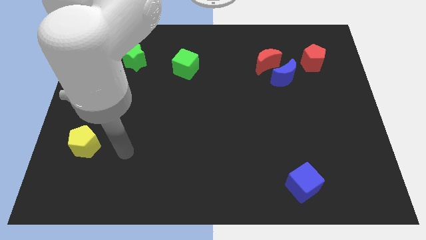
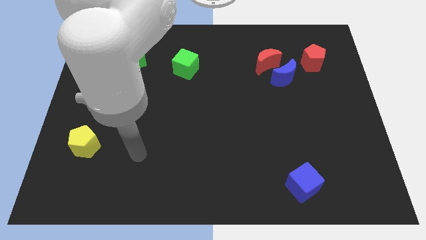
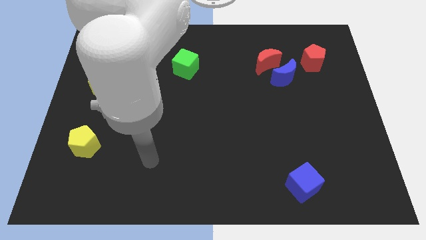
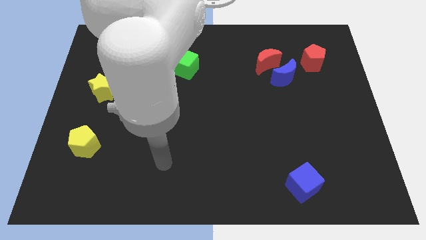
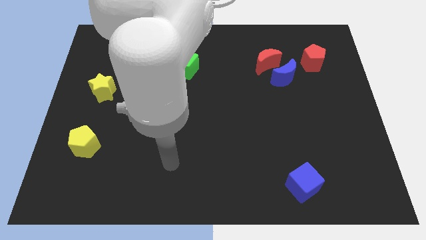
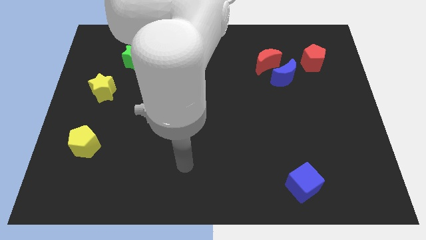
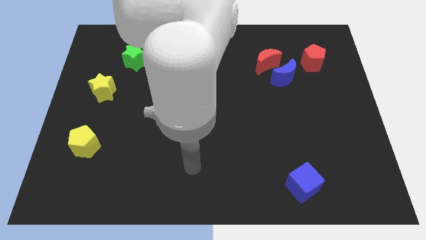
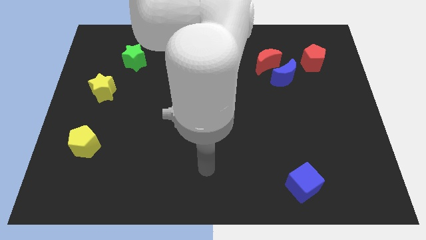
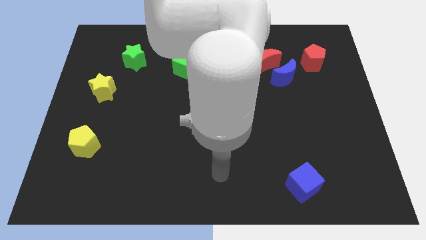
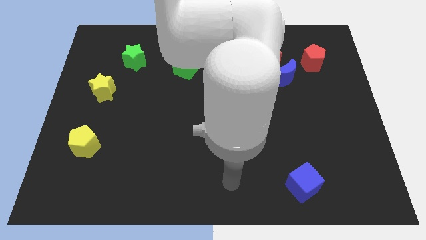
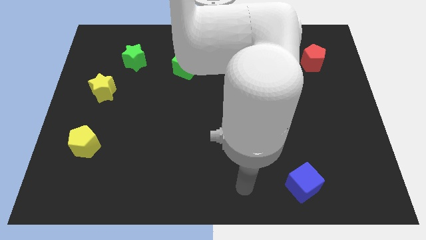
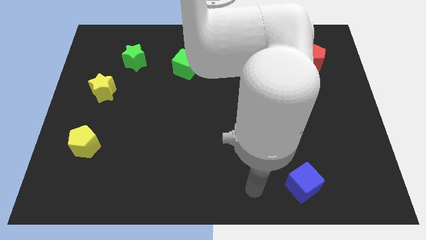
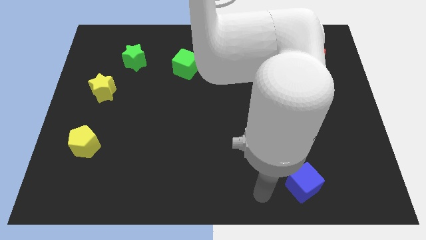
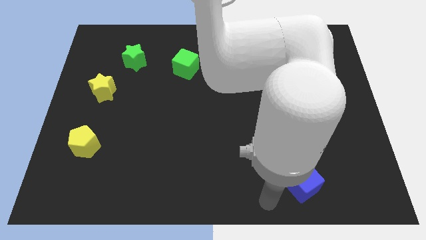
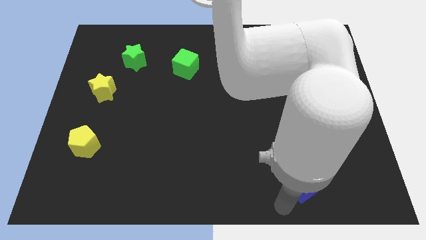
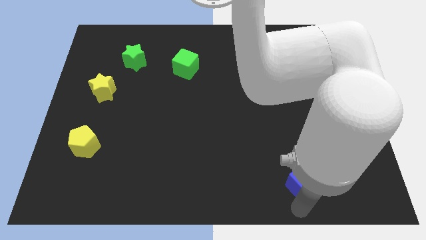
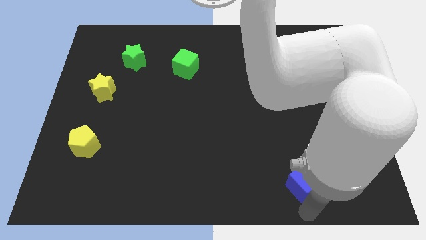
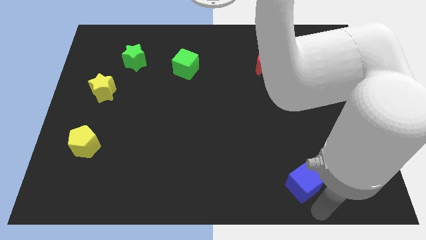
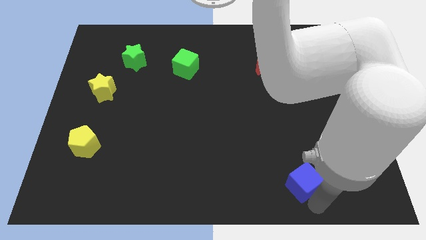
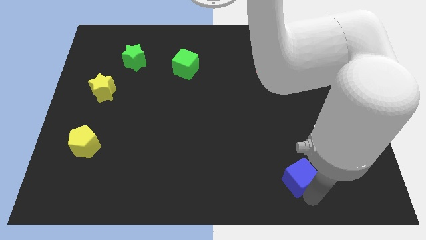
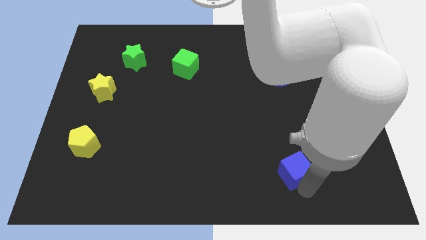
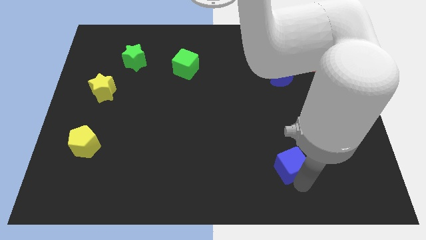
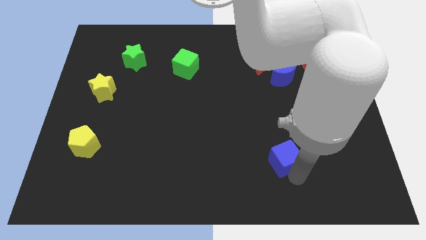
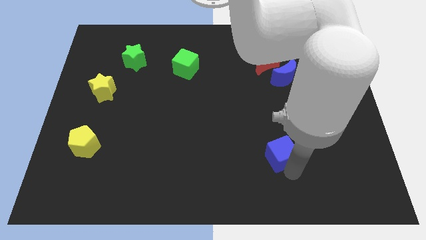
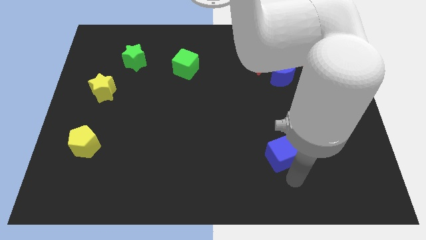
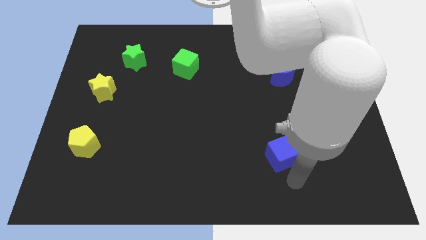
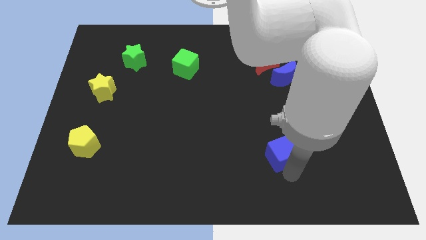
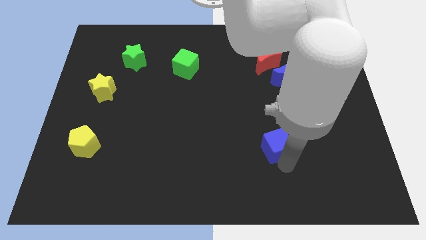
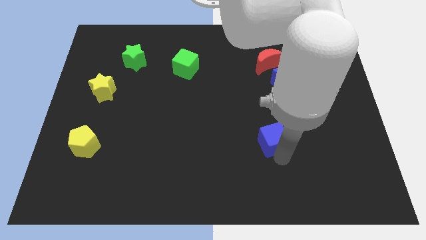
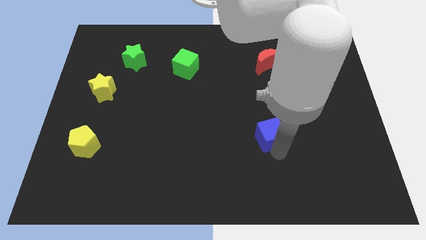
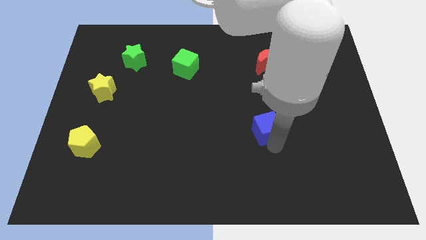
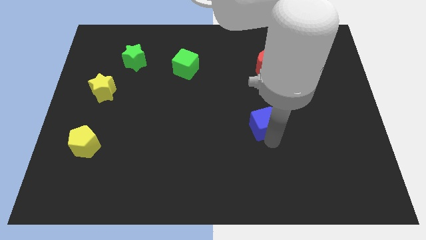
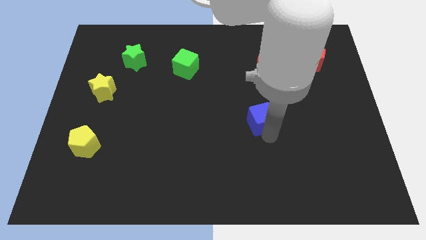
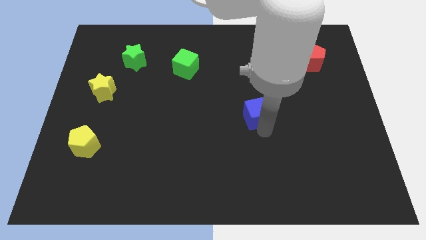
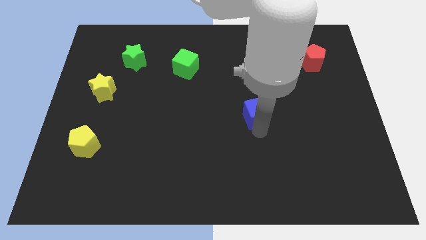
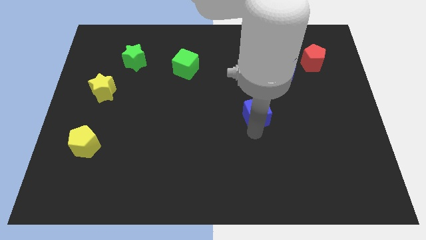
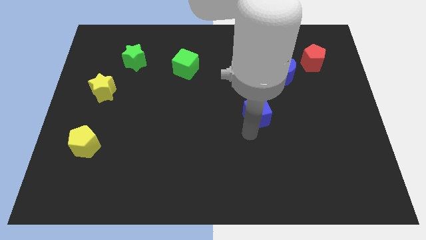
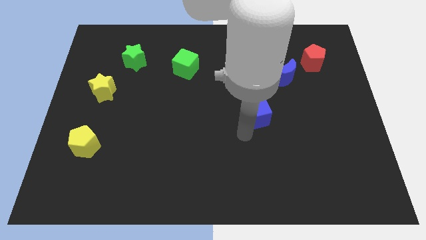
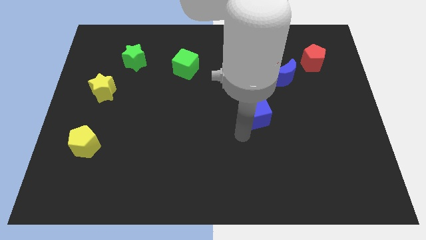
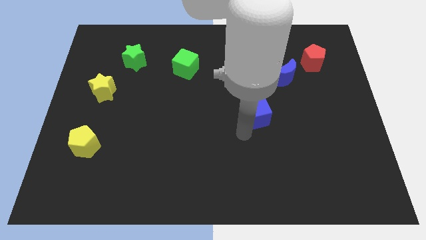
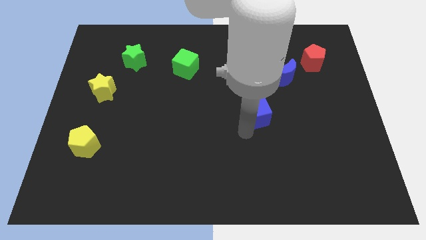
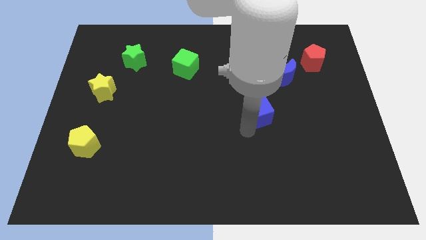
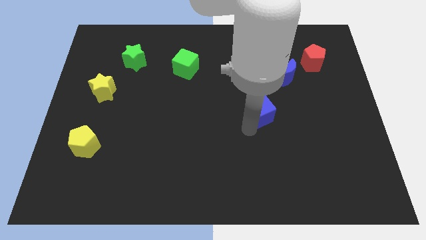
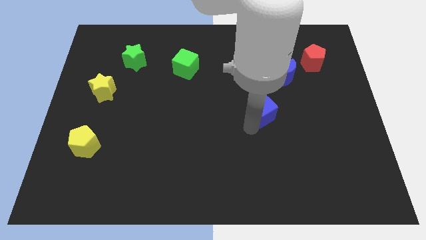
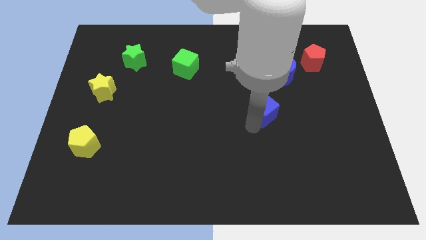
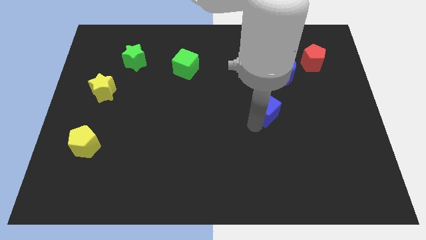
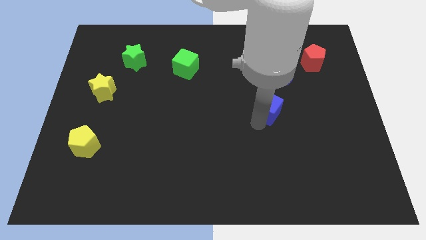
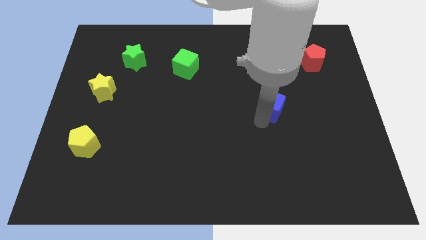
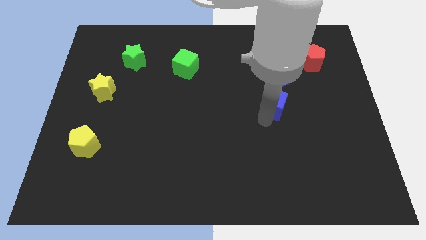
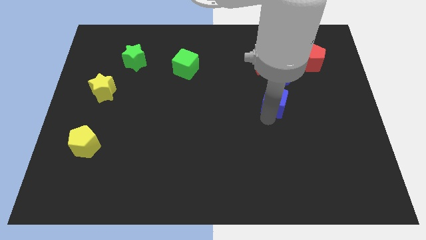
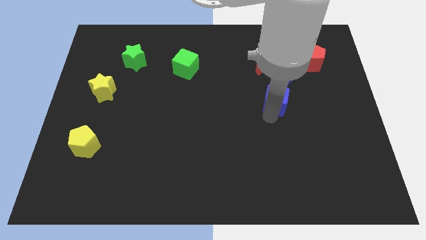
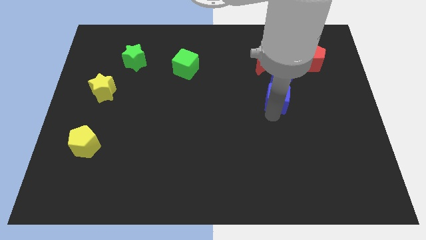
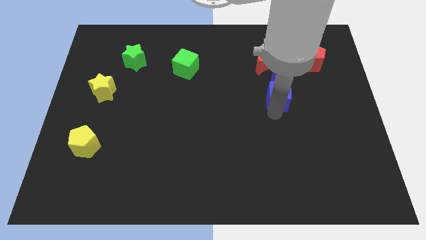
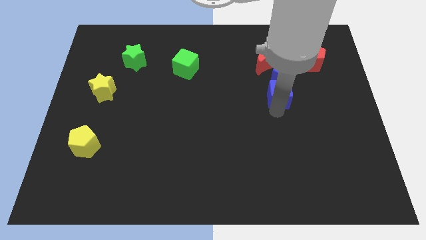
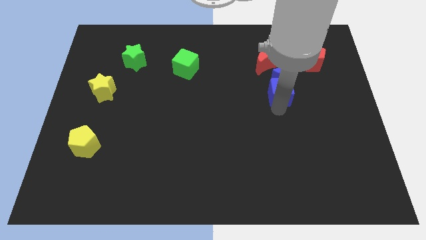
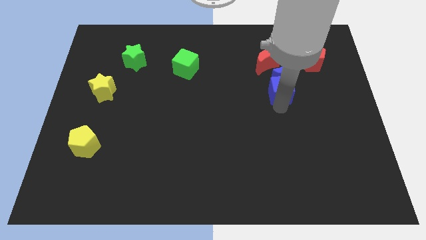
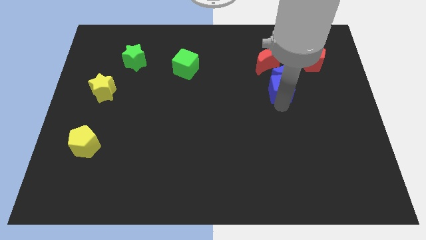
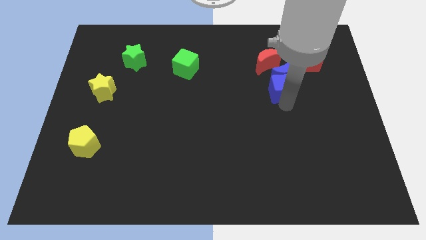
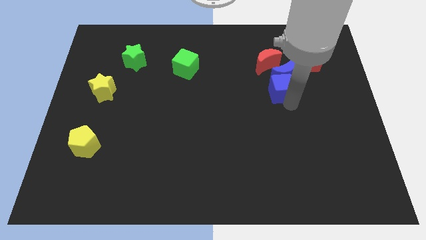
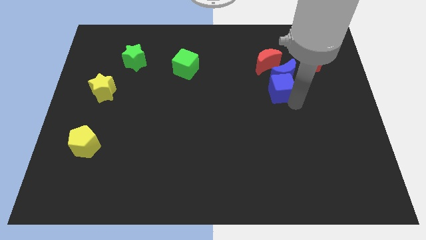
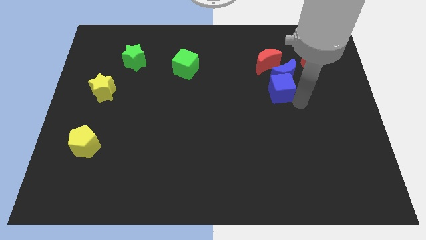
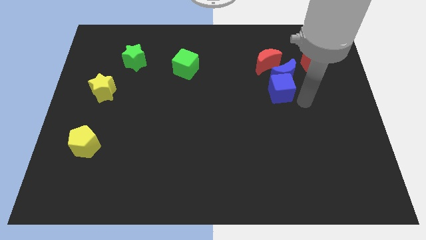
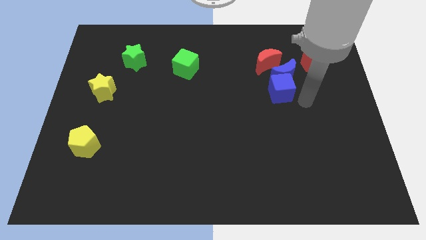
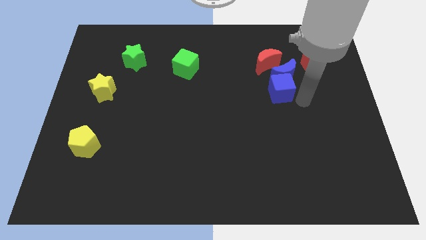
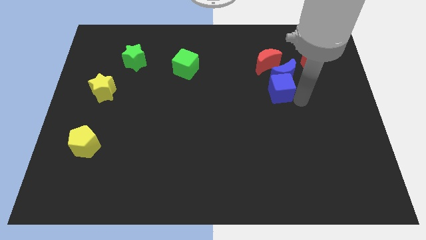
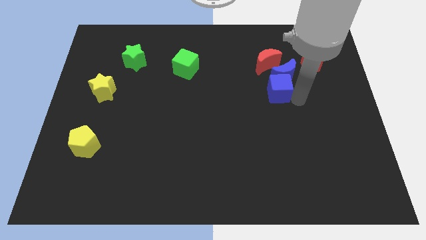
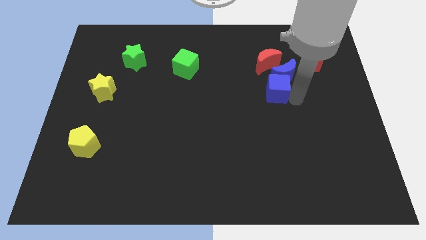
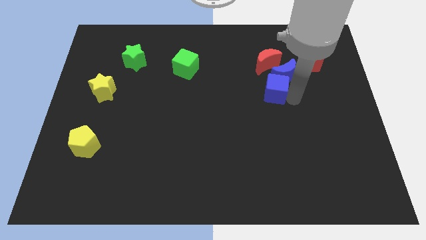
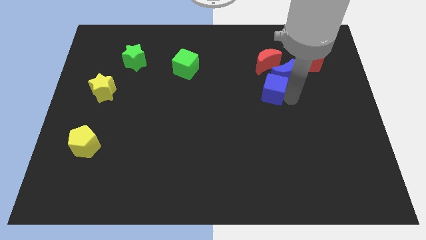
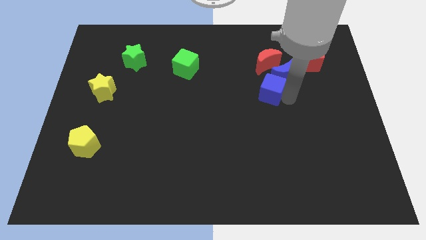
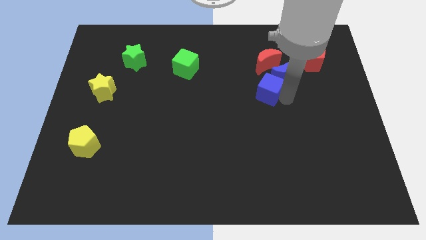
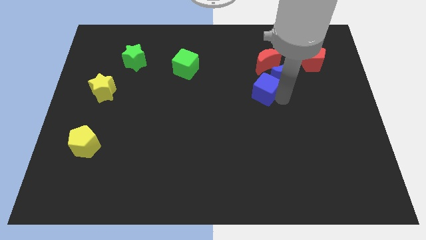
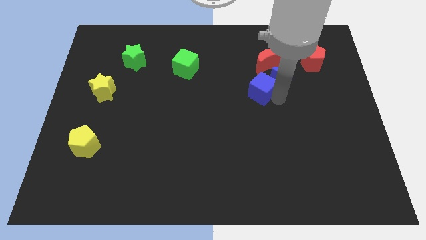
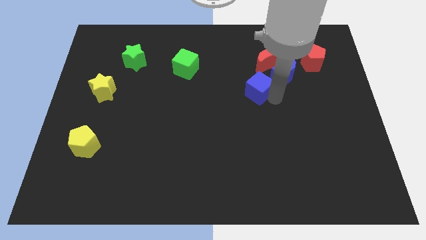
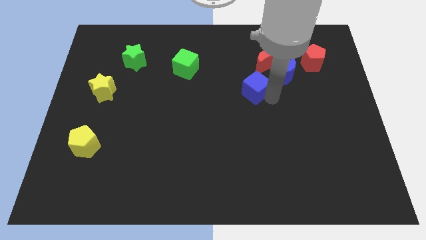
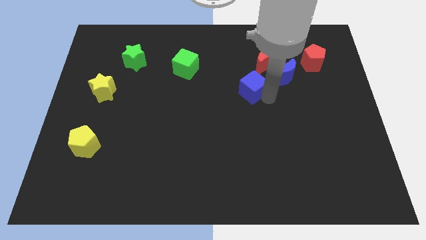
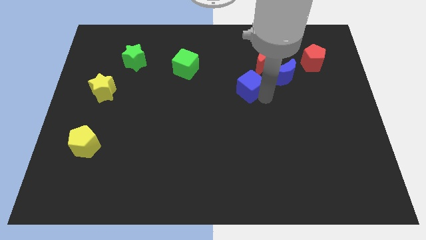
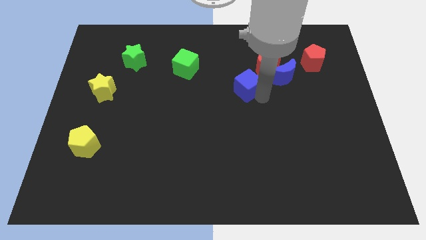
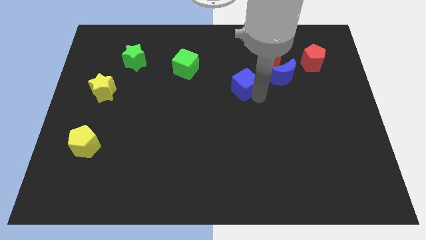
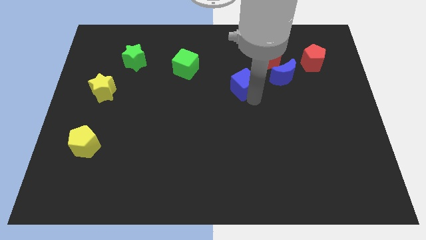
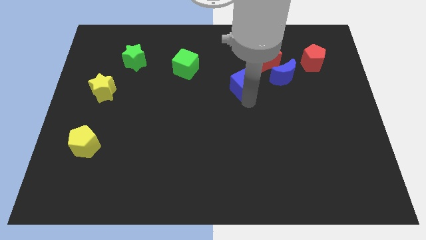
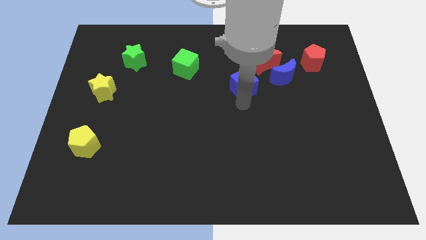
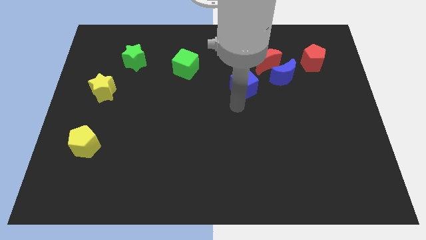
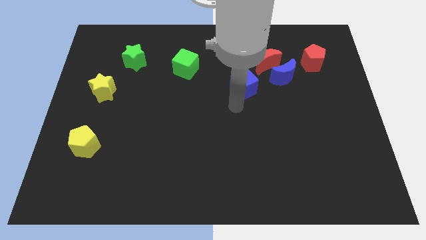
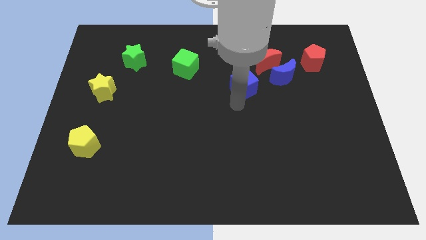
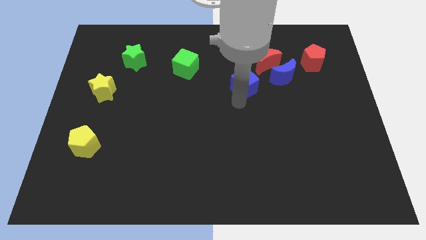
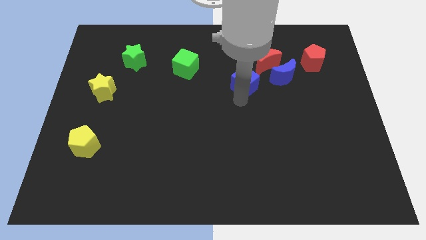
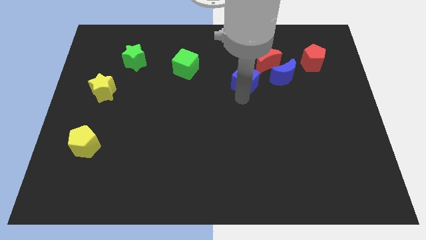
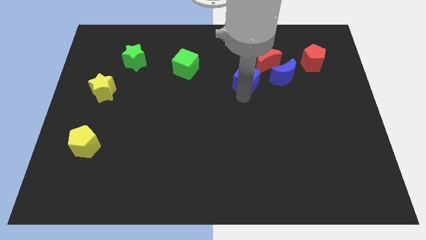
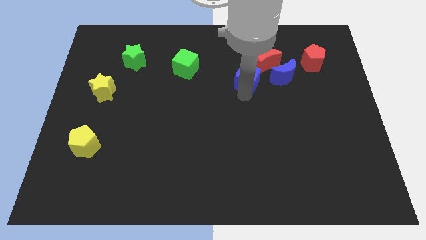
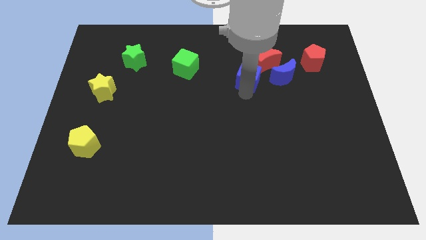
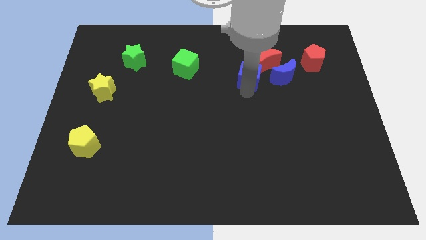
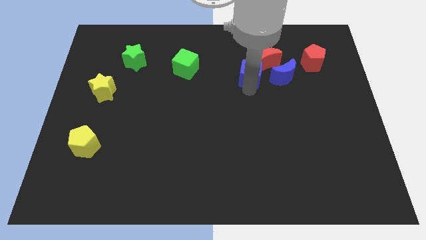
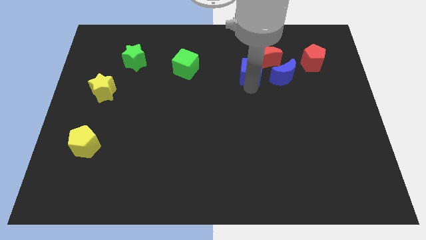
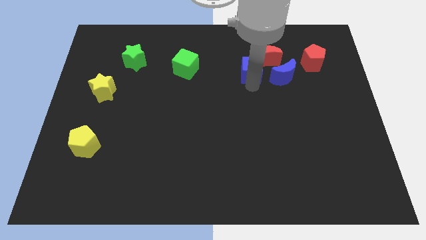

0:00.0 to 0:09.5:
slide the blue cube to the top left side of the blue moon
